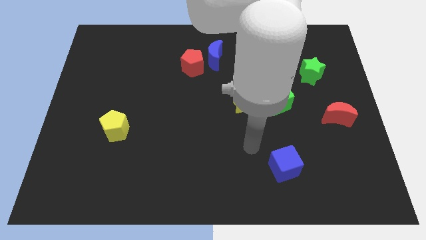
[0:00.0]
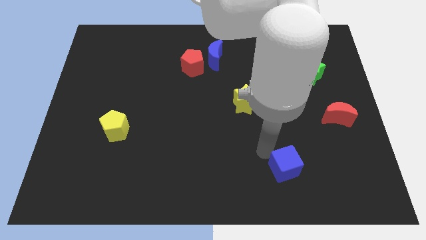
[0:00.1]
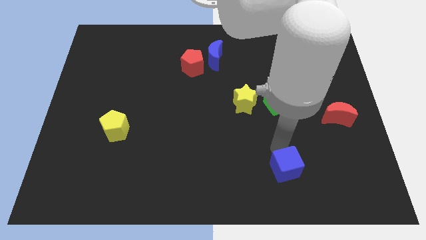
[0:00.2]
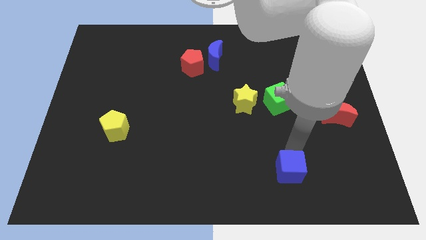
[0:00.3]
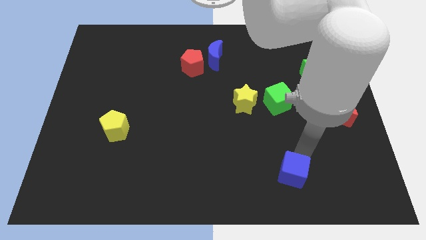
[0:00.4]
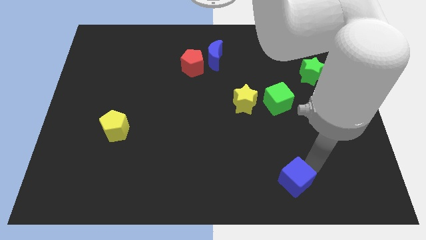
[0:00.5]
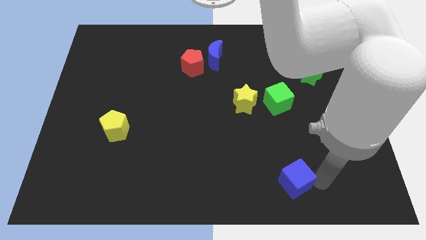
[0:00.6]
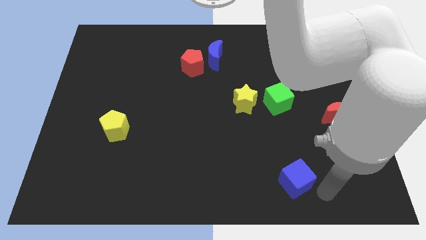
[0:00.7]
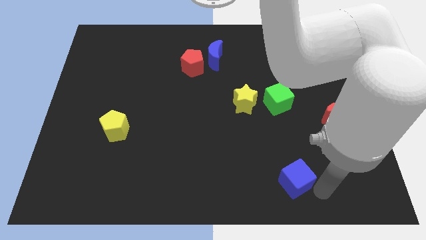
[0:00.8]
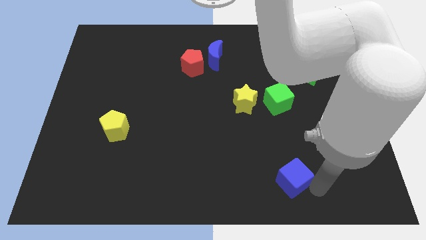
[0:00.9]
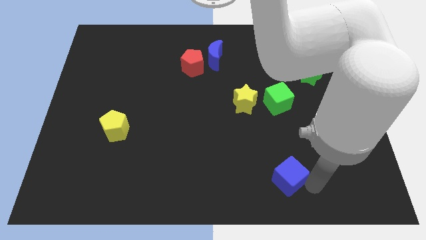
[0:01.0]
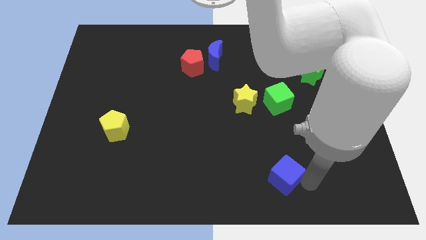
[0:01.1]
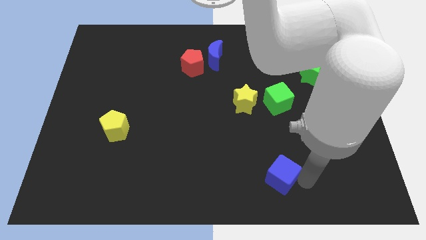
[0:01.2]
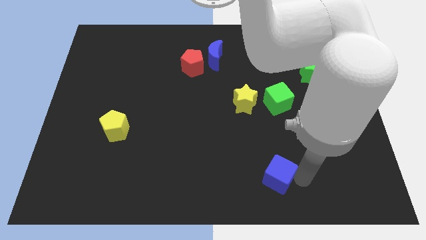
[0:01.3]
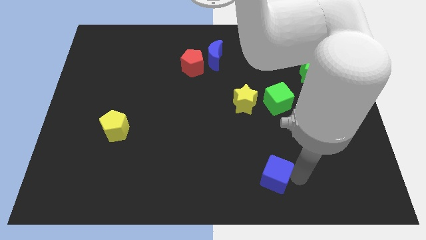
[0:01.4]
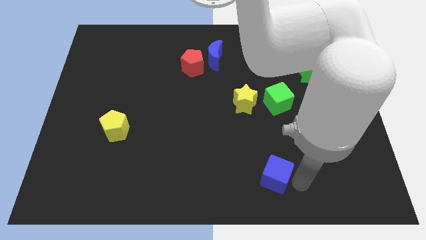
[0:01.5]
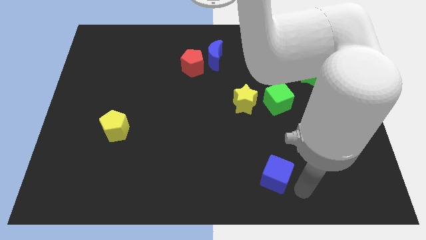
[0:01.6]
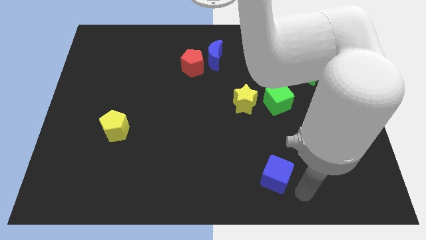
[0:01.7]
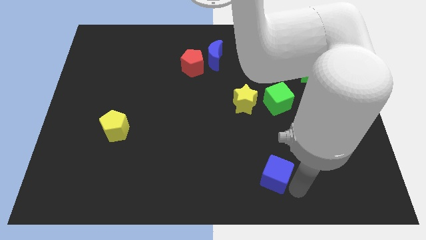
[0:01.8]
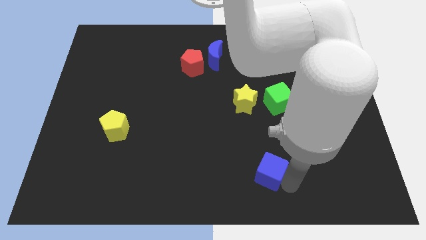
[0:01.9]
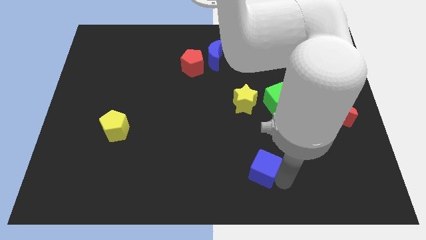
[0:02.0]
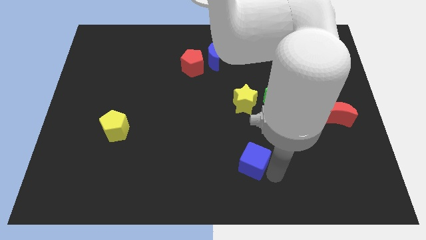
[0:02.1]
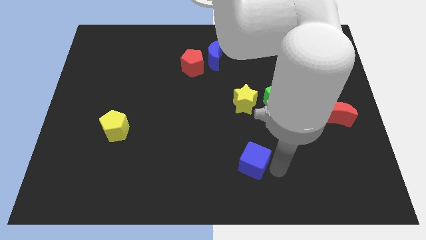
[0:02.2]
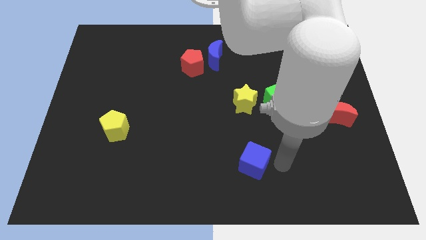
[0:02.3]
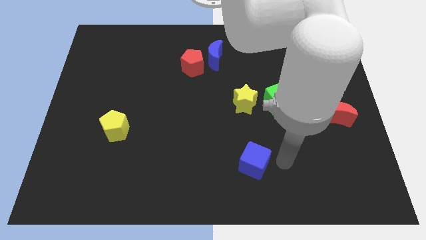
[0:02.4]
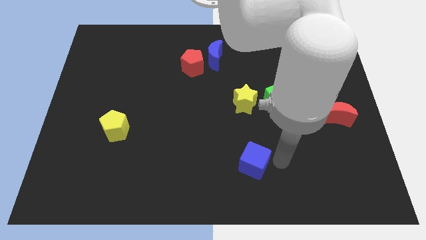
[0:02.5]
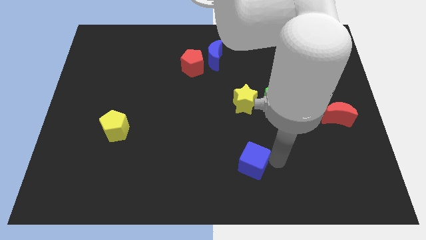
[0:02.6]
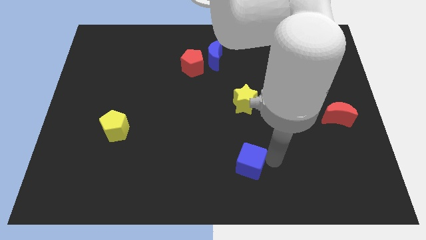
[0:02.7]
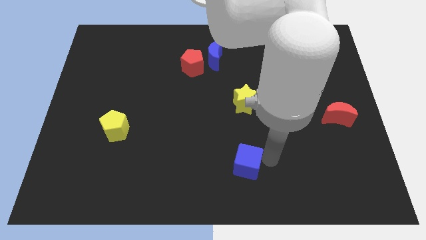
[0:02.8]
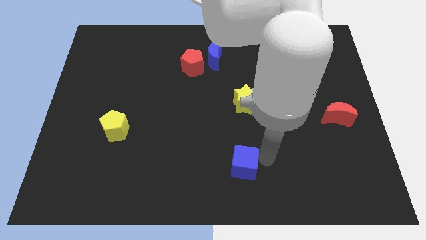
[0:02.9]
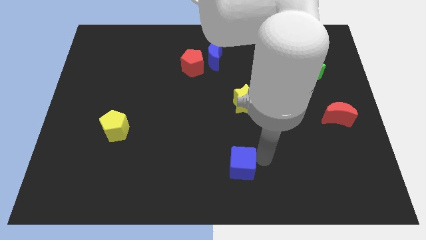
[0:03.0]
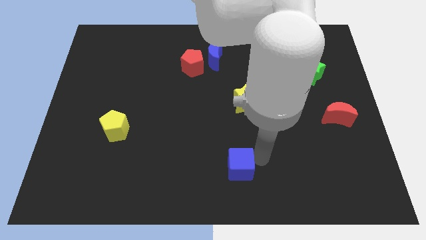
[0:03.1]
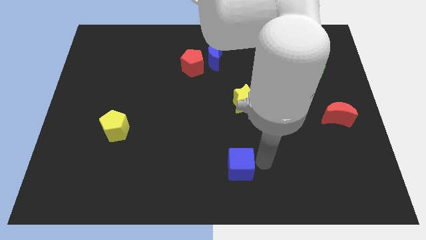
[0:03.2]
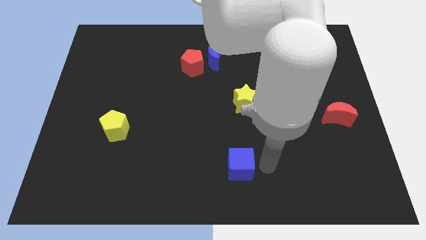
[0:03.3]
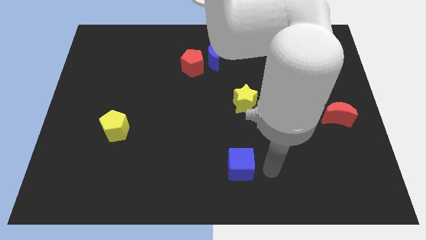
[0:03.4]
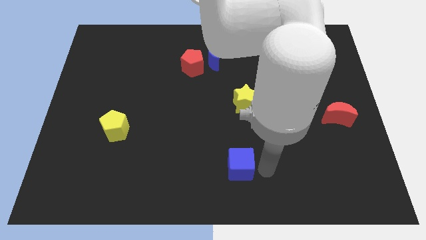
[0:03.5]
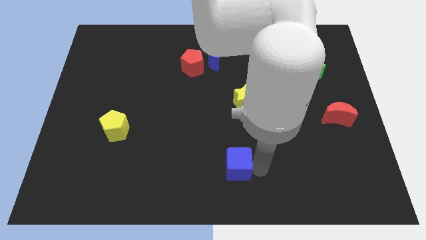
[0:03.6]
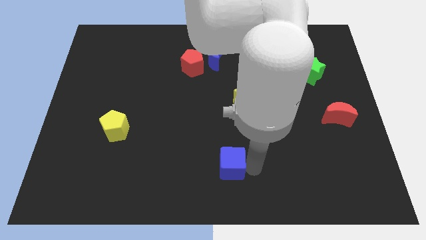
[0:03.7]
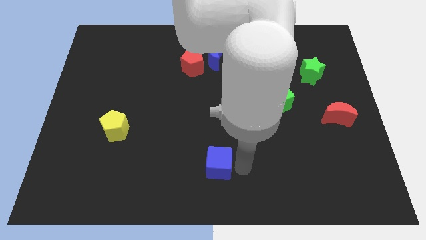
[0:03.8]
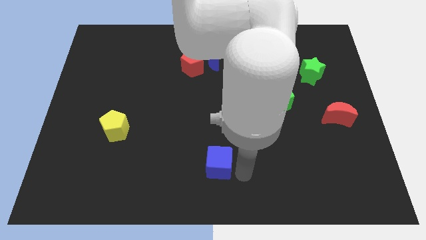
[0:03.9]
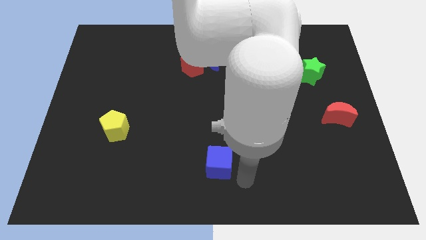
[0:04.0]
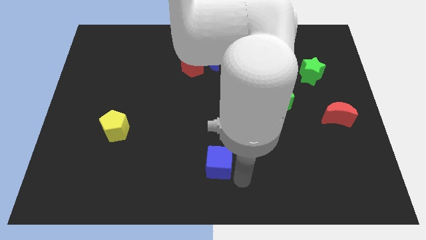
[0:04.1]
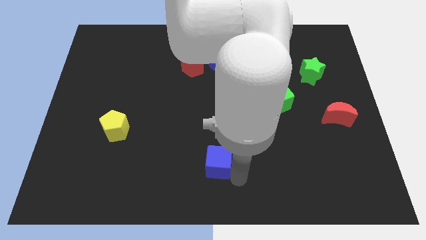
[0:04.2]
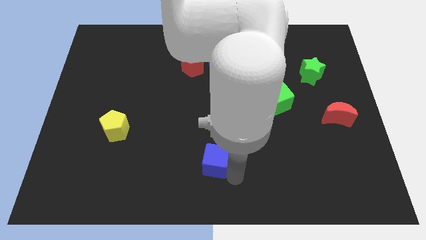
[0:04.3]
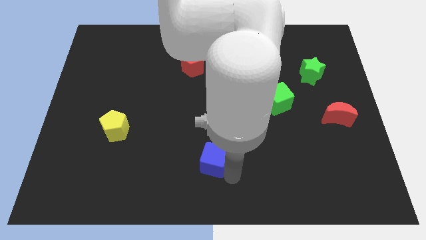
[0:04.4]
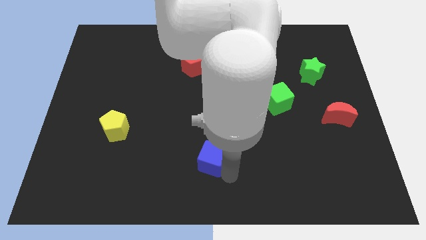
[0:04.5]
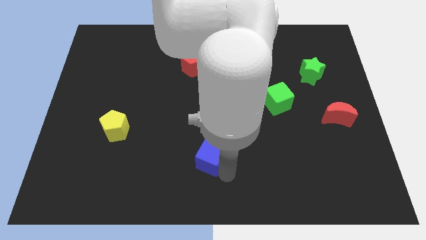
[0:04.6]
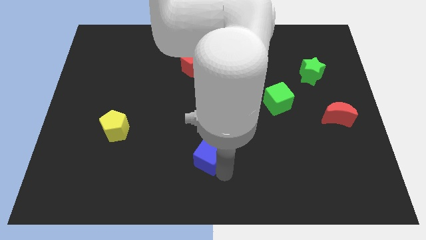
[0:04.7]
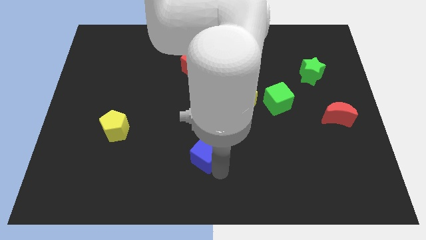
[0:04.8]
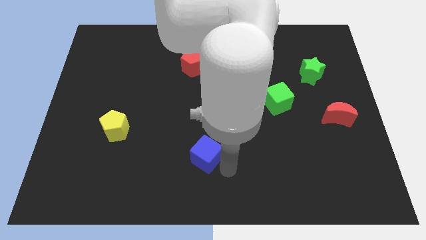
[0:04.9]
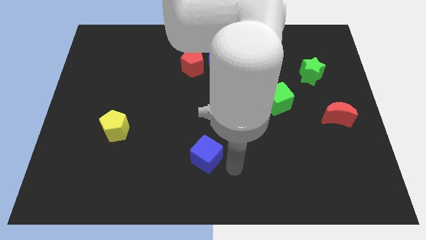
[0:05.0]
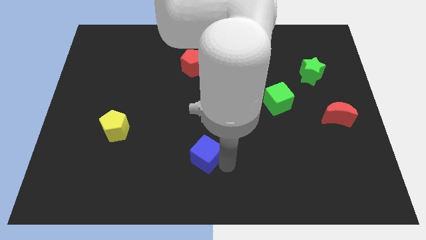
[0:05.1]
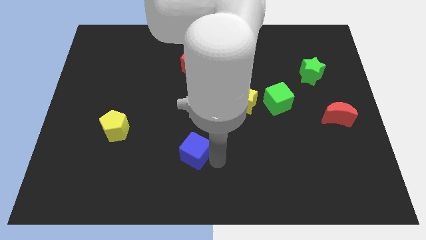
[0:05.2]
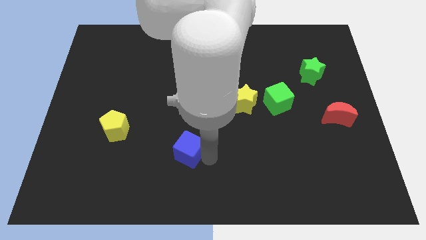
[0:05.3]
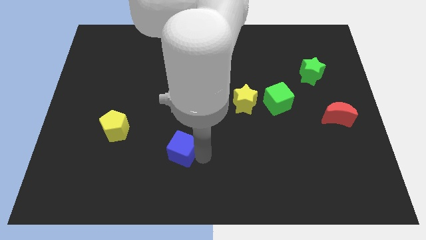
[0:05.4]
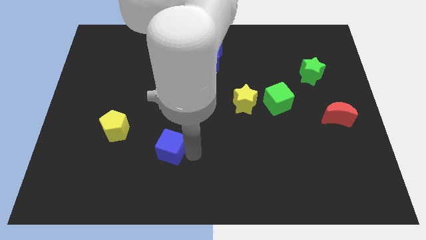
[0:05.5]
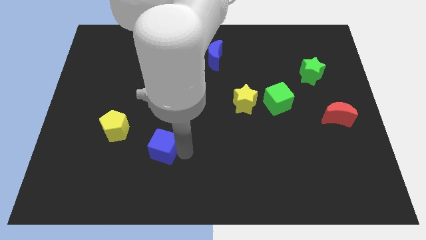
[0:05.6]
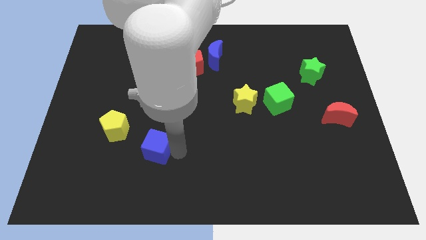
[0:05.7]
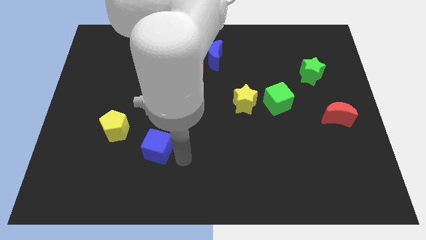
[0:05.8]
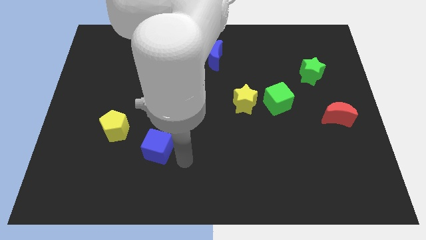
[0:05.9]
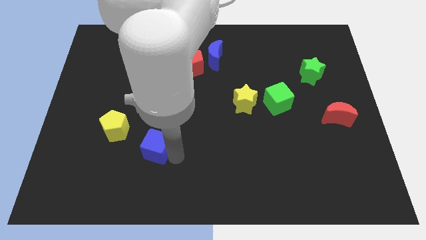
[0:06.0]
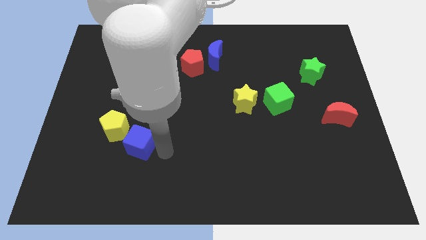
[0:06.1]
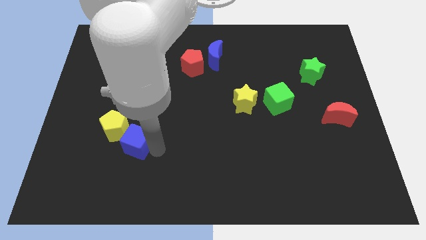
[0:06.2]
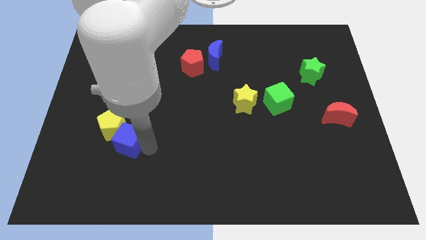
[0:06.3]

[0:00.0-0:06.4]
push the blue cube next to the yellow pentagon
